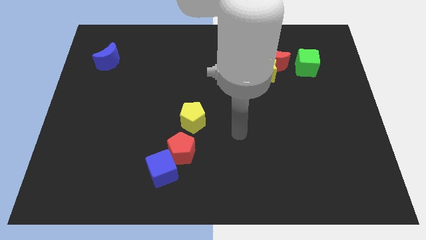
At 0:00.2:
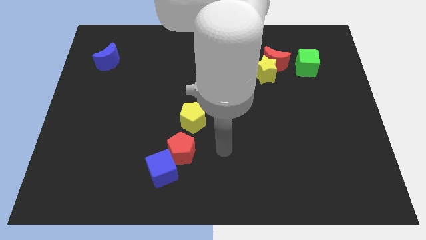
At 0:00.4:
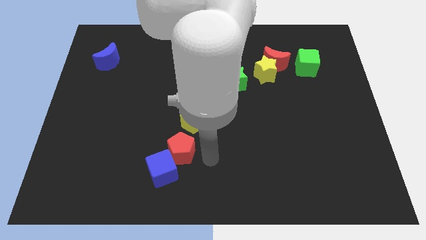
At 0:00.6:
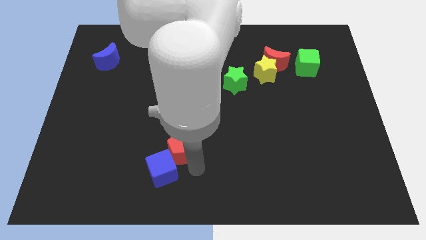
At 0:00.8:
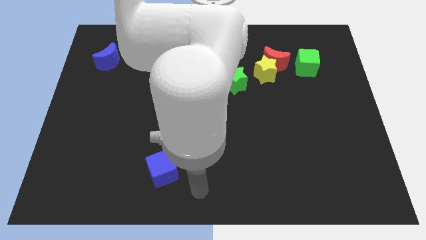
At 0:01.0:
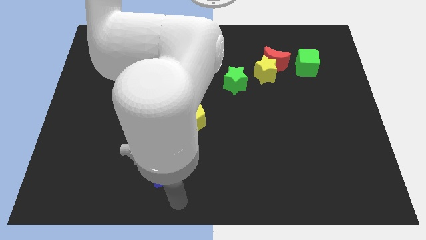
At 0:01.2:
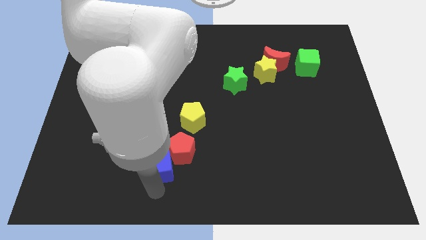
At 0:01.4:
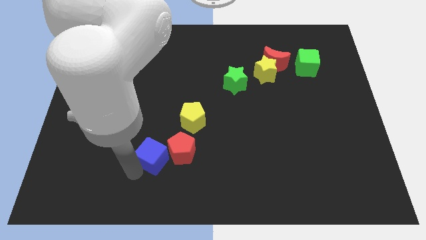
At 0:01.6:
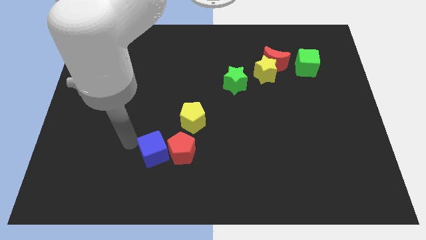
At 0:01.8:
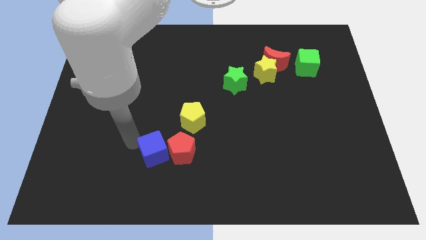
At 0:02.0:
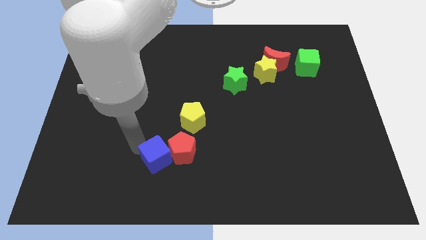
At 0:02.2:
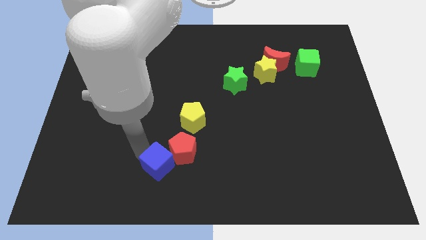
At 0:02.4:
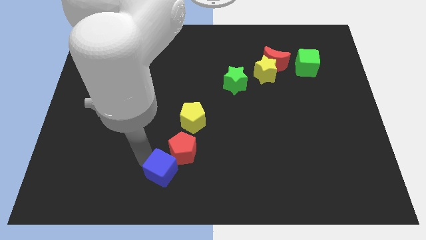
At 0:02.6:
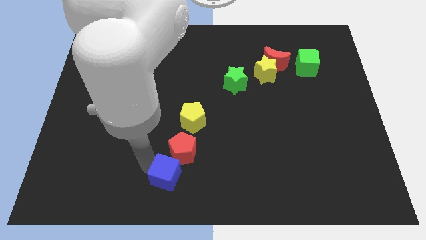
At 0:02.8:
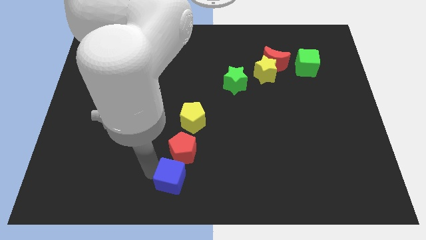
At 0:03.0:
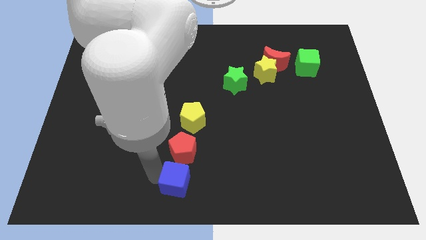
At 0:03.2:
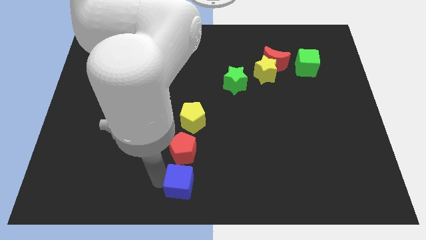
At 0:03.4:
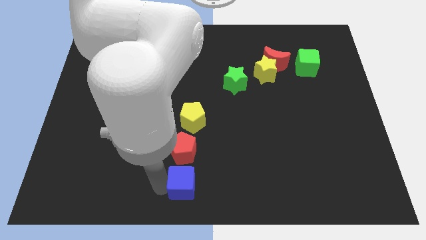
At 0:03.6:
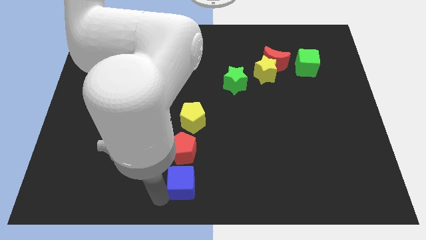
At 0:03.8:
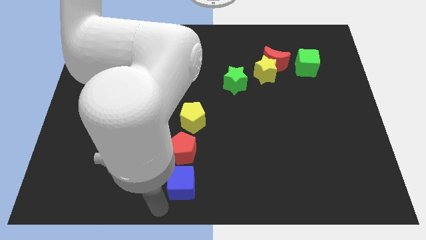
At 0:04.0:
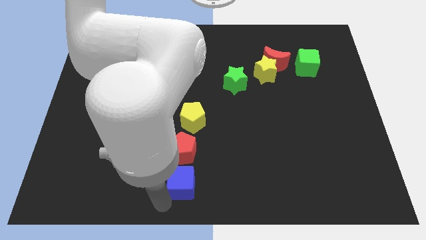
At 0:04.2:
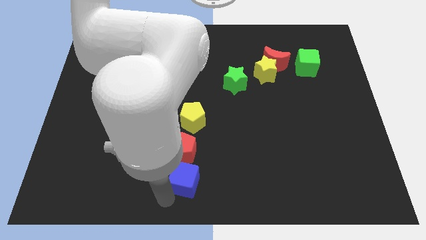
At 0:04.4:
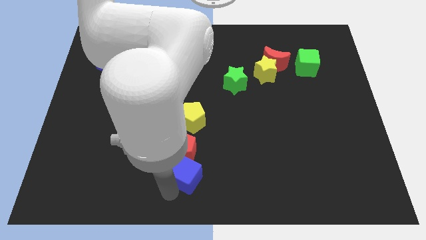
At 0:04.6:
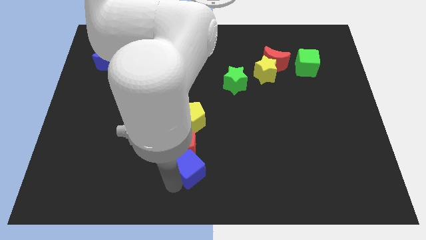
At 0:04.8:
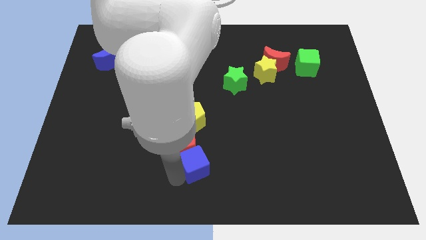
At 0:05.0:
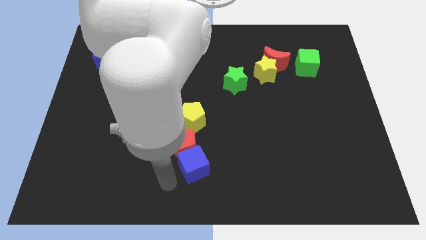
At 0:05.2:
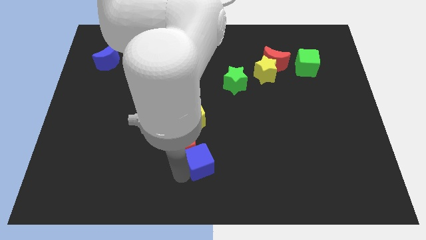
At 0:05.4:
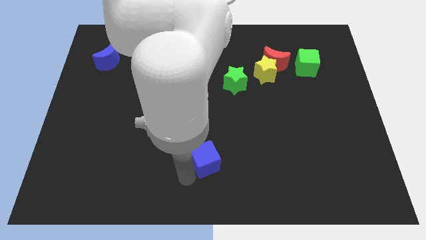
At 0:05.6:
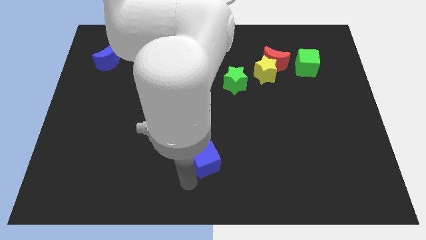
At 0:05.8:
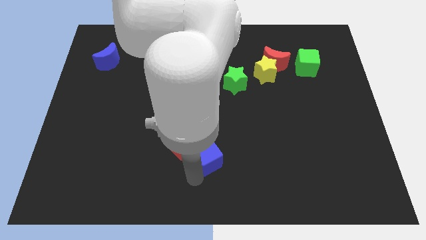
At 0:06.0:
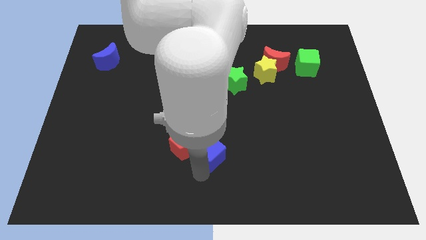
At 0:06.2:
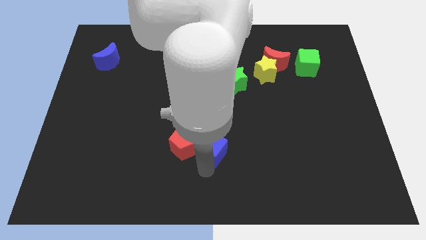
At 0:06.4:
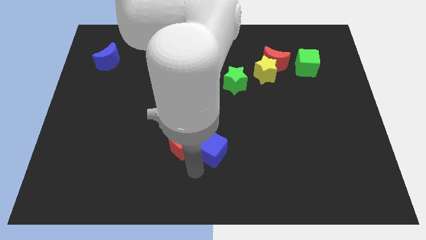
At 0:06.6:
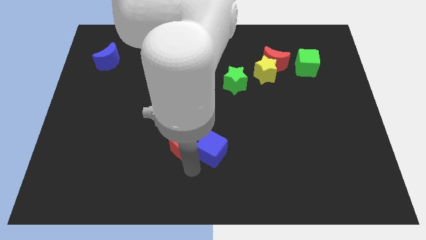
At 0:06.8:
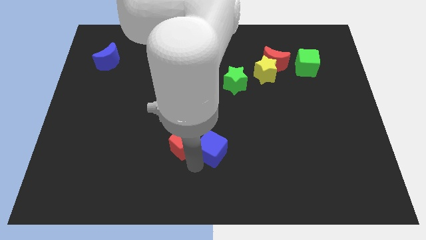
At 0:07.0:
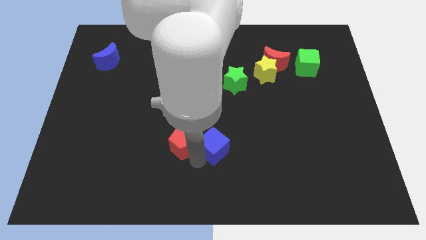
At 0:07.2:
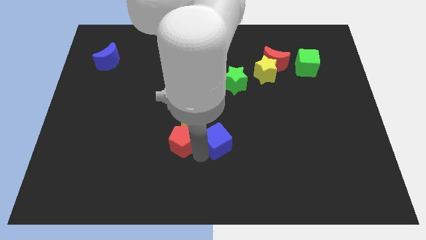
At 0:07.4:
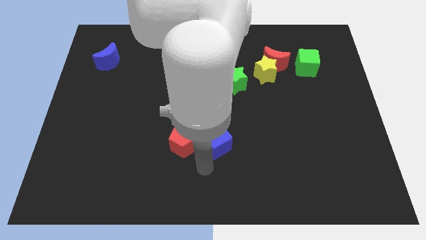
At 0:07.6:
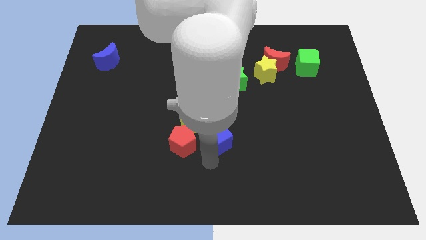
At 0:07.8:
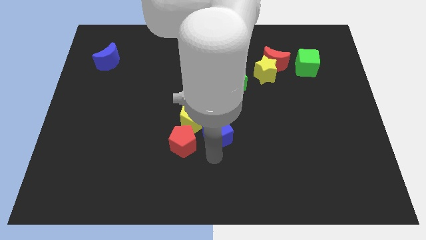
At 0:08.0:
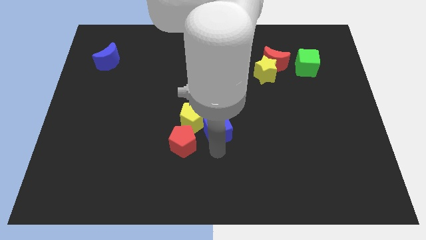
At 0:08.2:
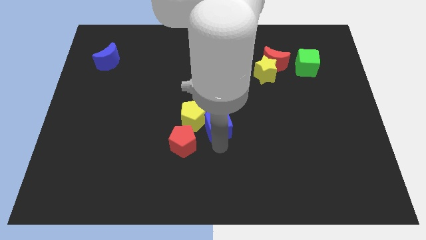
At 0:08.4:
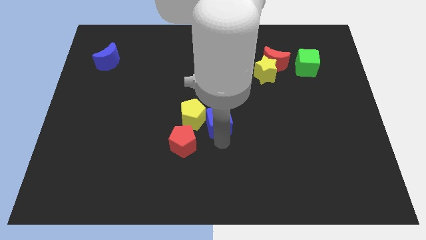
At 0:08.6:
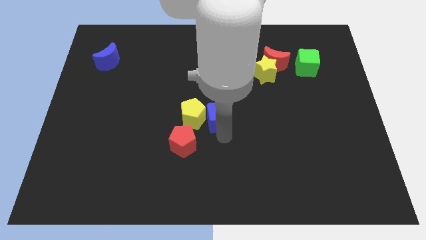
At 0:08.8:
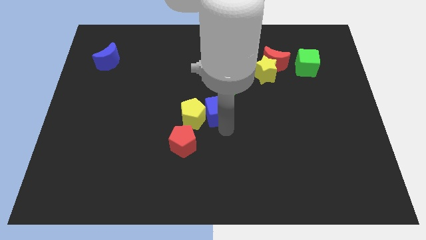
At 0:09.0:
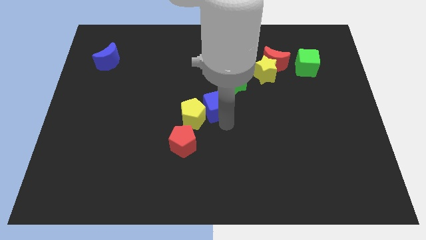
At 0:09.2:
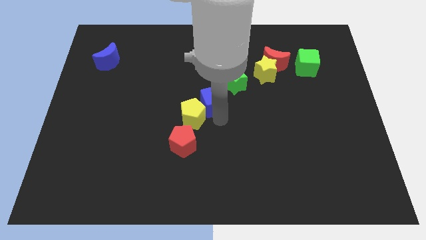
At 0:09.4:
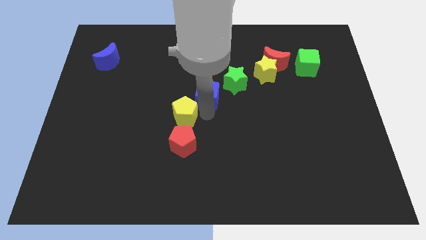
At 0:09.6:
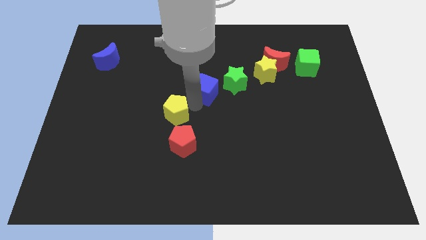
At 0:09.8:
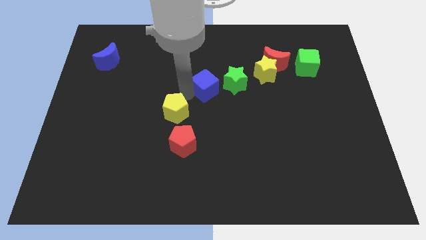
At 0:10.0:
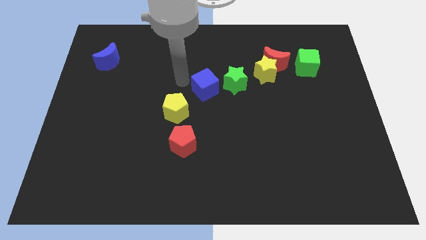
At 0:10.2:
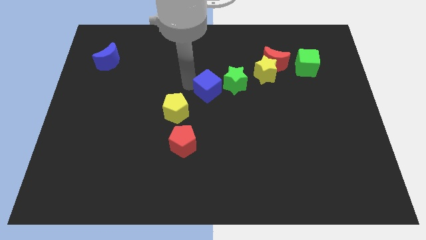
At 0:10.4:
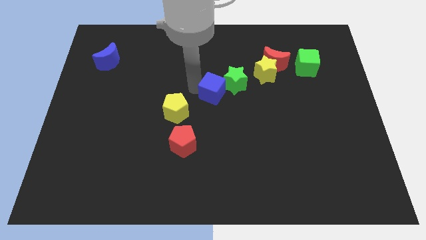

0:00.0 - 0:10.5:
push the blue cube upwards and then to the right

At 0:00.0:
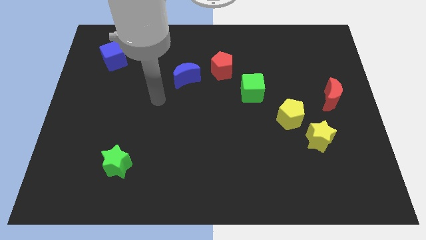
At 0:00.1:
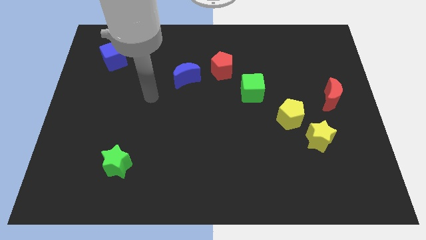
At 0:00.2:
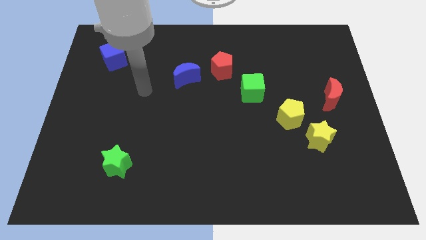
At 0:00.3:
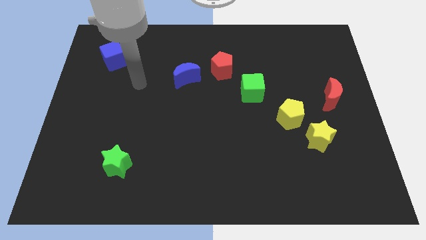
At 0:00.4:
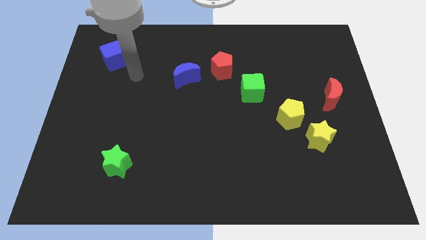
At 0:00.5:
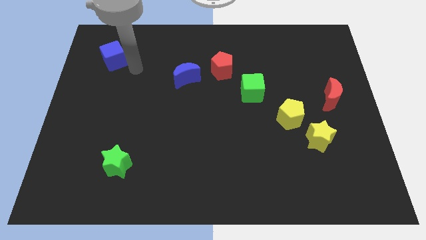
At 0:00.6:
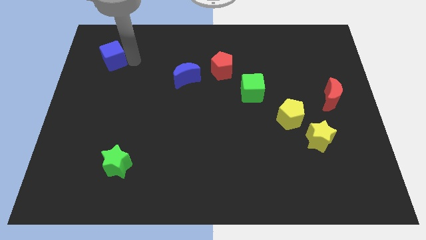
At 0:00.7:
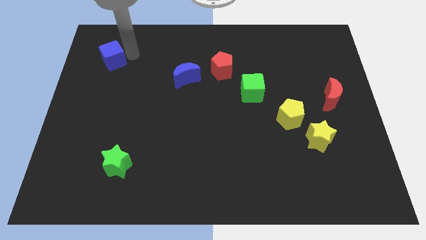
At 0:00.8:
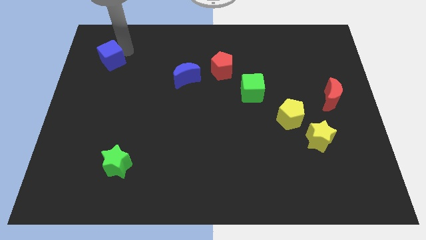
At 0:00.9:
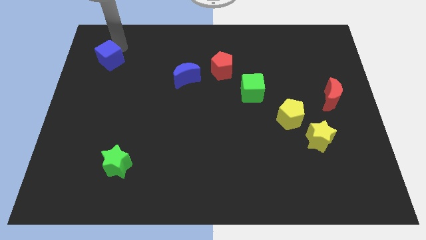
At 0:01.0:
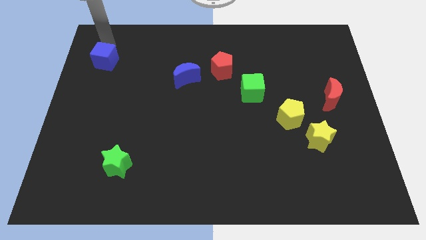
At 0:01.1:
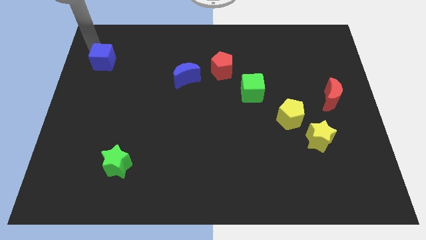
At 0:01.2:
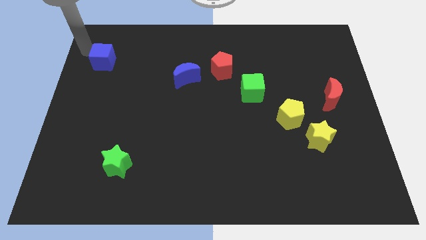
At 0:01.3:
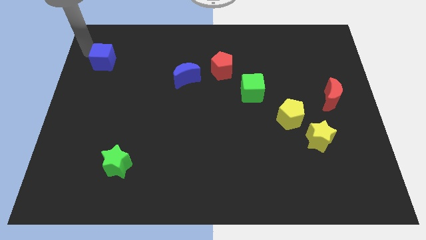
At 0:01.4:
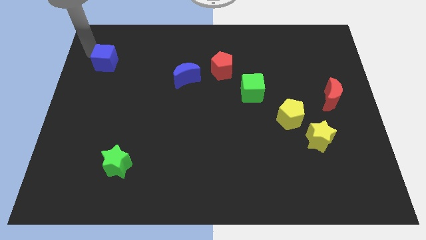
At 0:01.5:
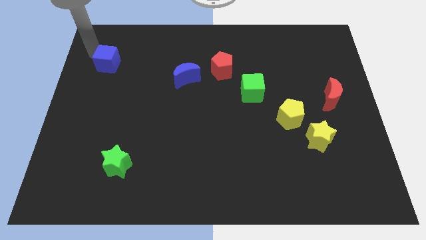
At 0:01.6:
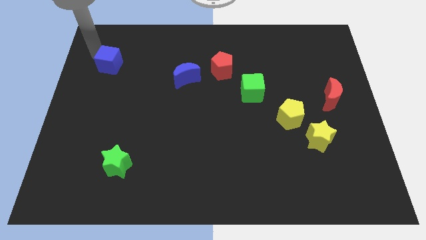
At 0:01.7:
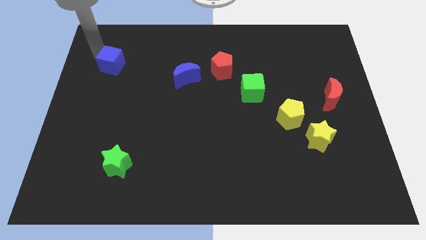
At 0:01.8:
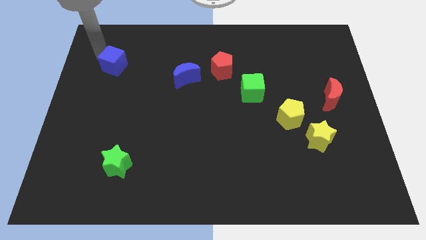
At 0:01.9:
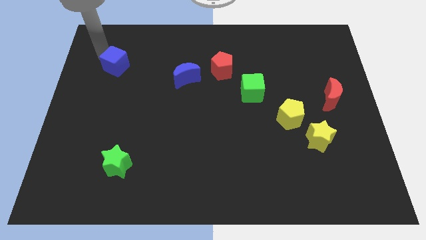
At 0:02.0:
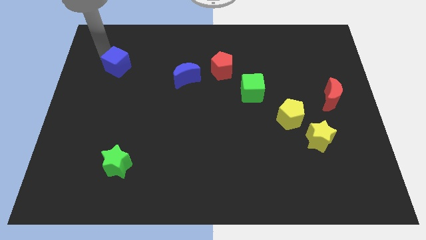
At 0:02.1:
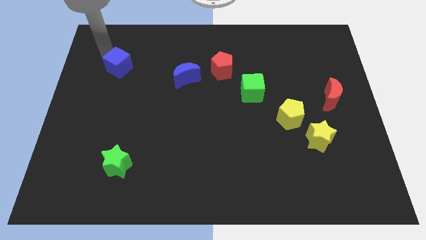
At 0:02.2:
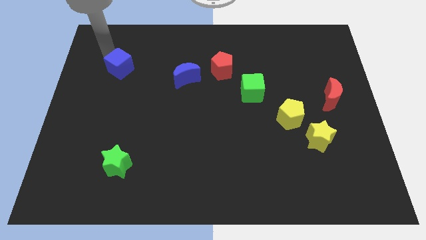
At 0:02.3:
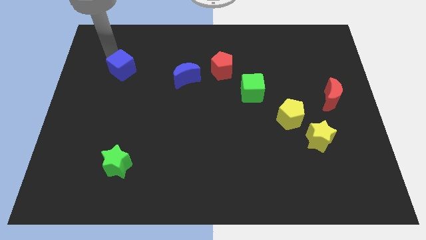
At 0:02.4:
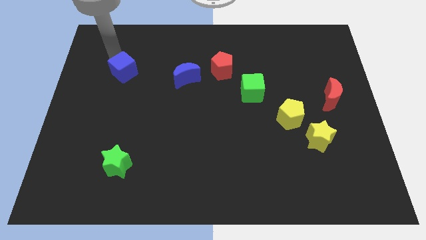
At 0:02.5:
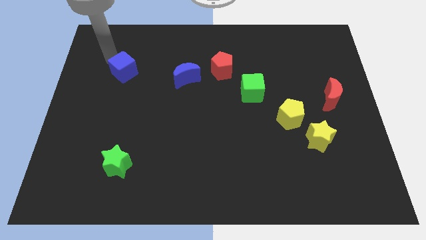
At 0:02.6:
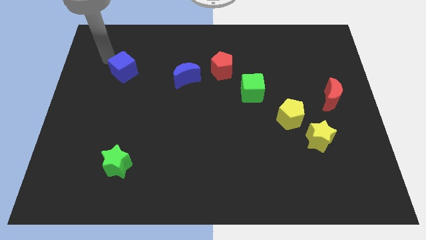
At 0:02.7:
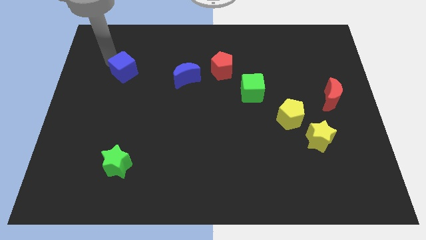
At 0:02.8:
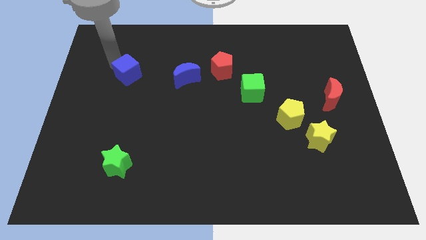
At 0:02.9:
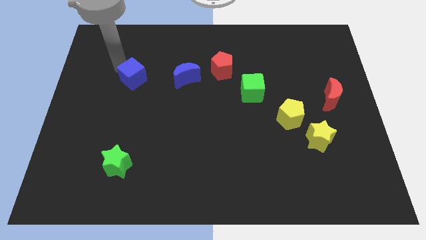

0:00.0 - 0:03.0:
slide the blue cube a little bit down and to the right diagonally
